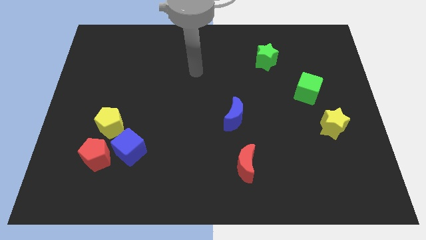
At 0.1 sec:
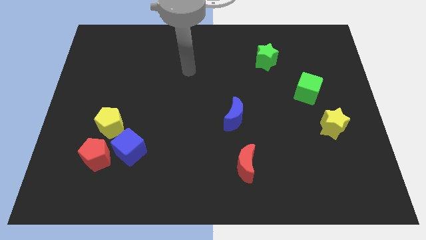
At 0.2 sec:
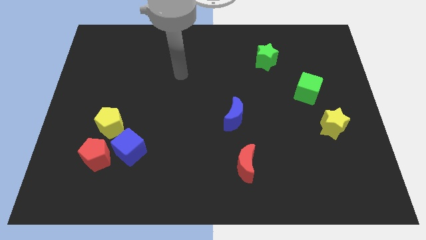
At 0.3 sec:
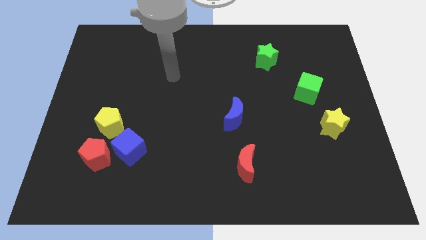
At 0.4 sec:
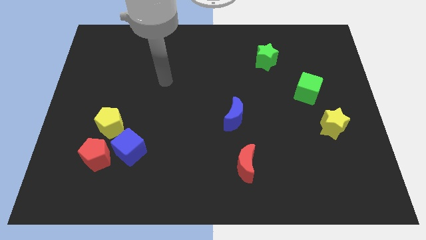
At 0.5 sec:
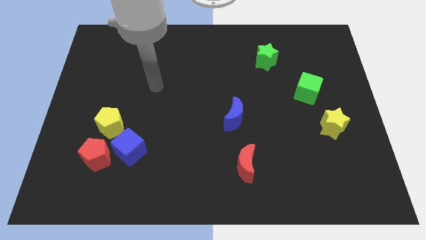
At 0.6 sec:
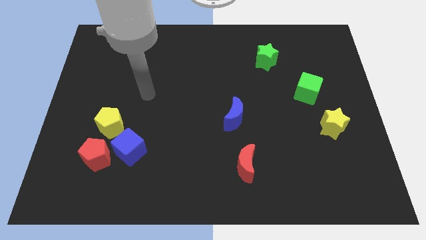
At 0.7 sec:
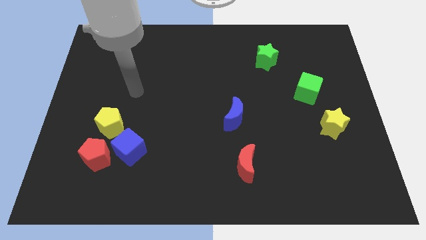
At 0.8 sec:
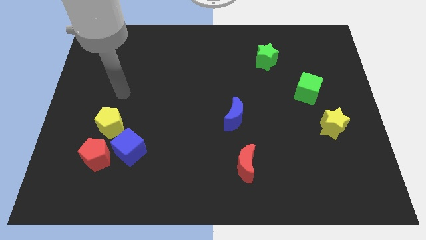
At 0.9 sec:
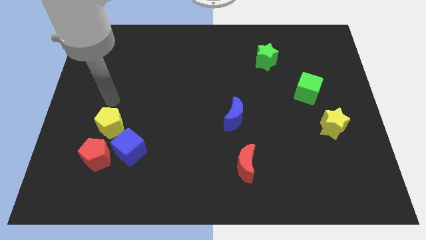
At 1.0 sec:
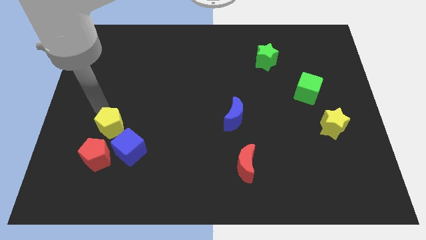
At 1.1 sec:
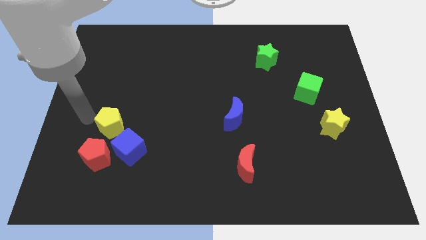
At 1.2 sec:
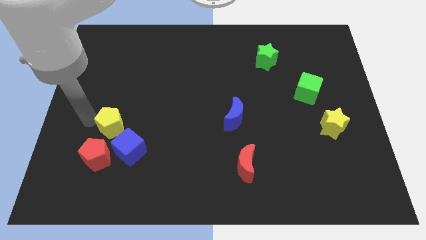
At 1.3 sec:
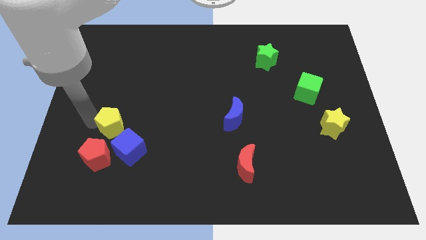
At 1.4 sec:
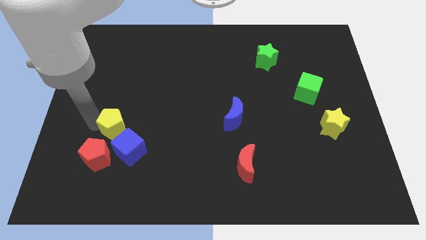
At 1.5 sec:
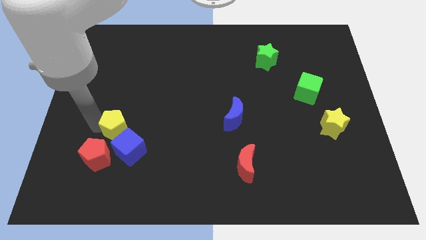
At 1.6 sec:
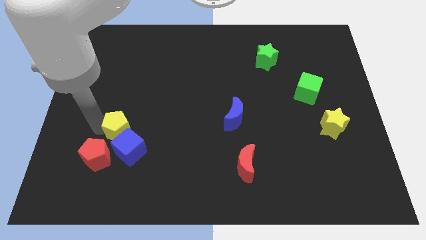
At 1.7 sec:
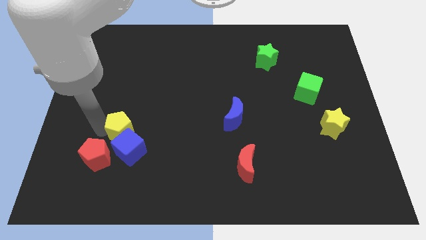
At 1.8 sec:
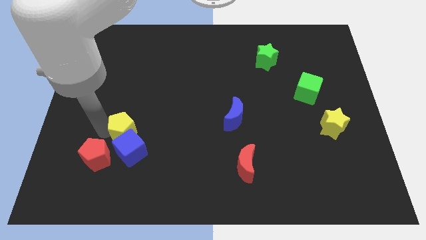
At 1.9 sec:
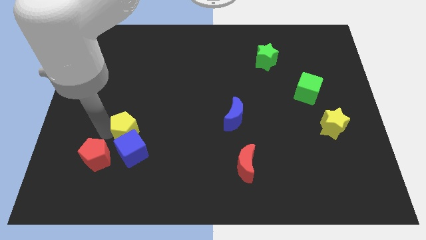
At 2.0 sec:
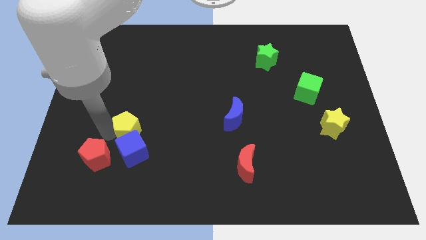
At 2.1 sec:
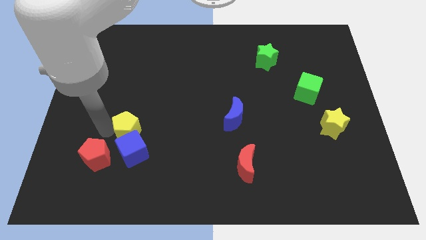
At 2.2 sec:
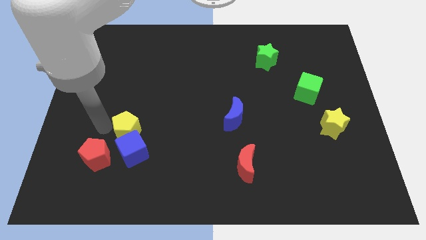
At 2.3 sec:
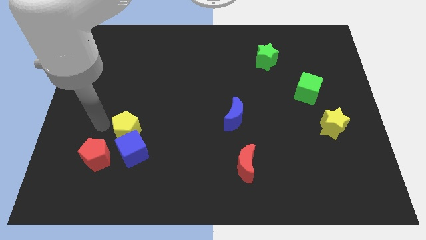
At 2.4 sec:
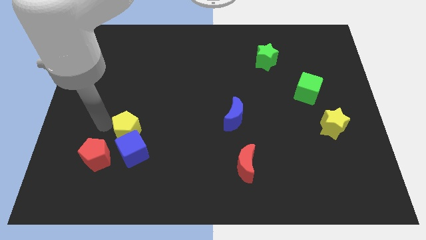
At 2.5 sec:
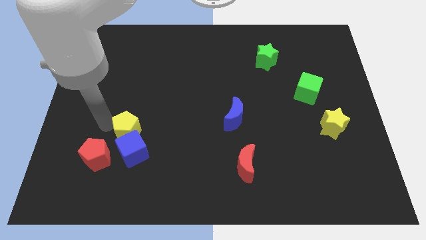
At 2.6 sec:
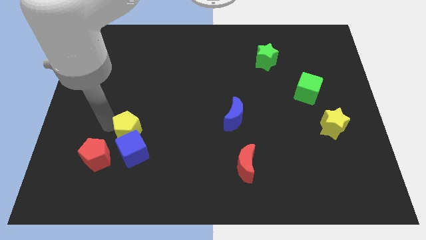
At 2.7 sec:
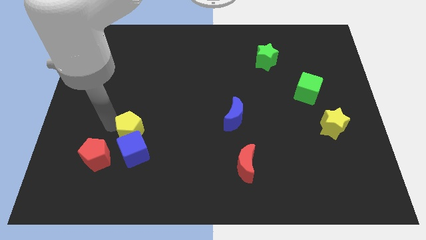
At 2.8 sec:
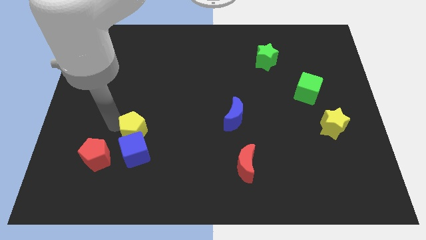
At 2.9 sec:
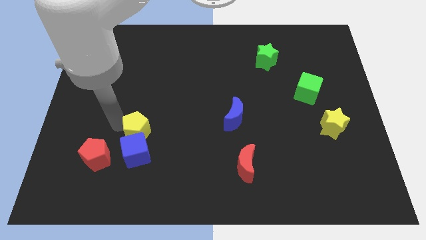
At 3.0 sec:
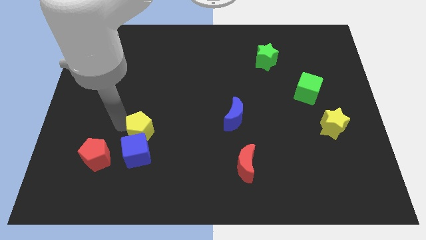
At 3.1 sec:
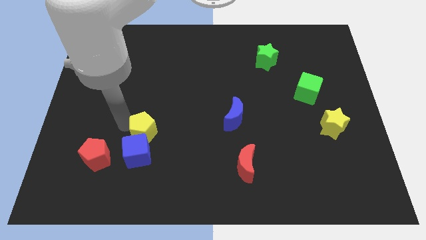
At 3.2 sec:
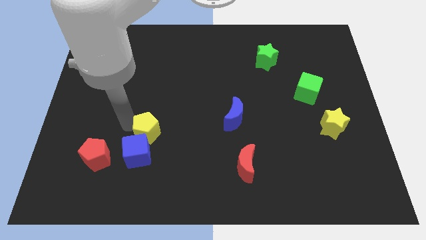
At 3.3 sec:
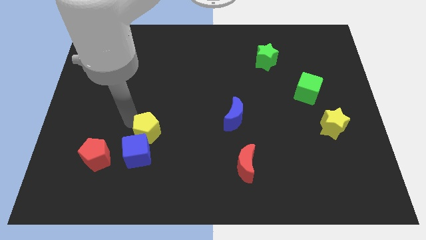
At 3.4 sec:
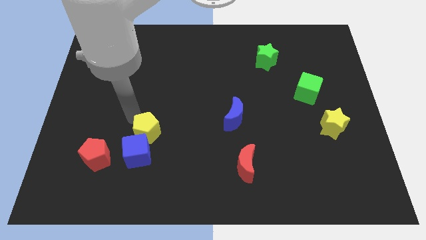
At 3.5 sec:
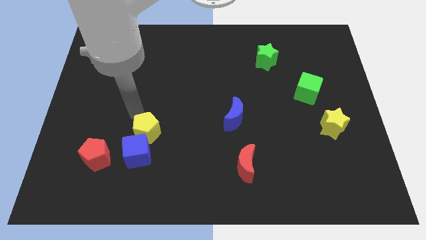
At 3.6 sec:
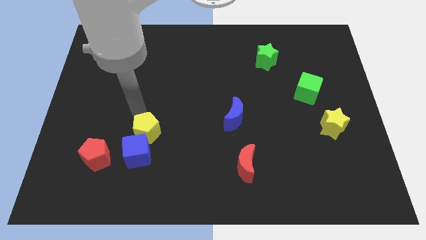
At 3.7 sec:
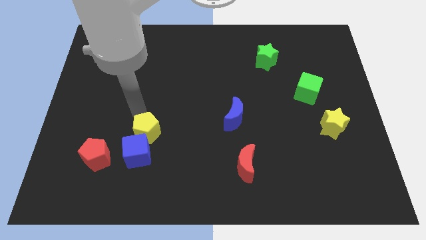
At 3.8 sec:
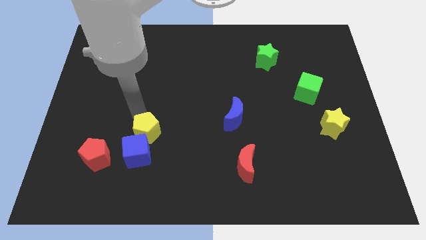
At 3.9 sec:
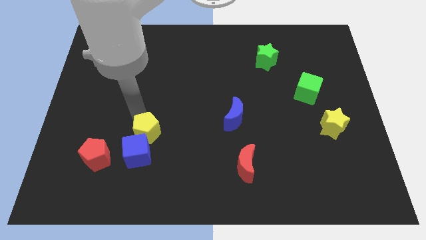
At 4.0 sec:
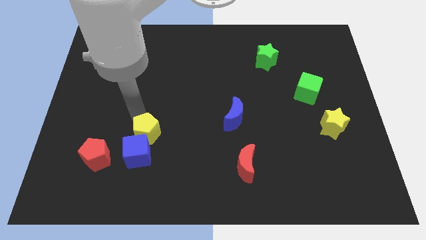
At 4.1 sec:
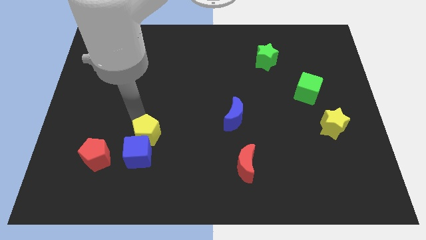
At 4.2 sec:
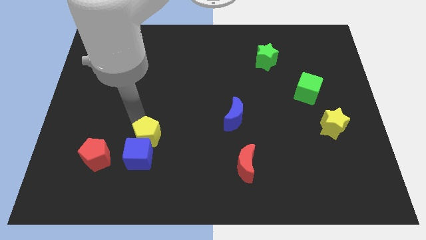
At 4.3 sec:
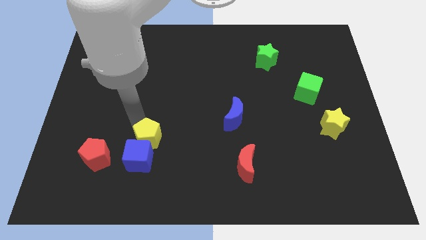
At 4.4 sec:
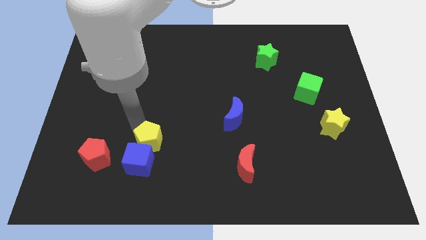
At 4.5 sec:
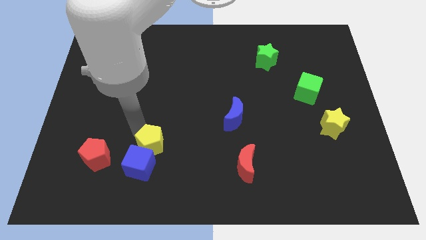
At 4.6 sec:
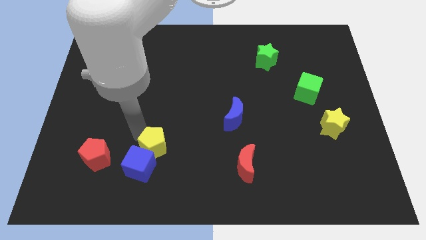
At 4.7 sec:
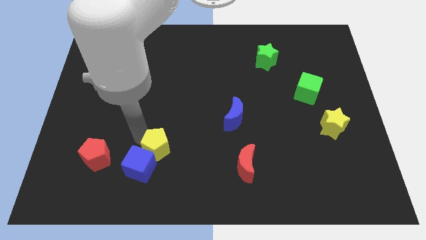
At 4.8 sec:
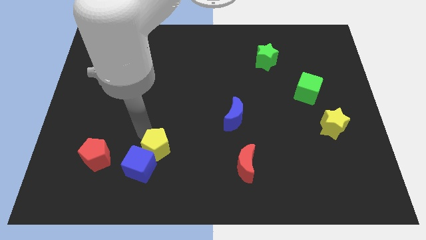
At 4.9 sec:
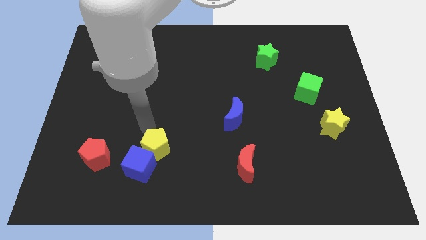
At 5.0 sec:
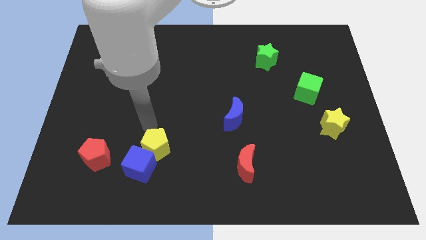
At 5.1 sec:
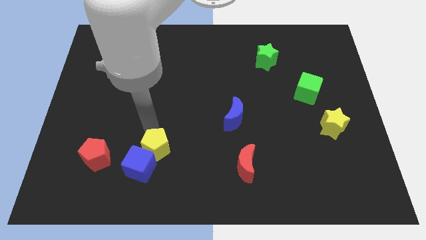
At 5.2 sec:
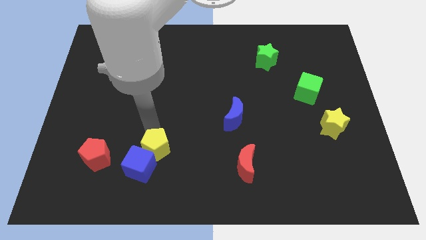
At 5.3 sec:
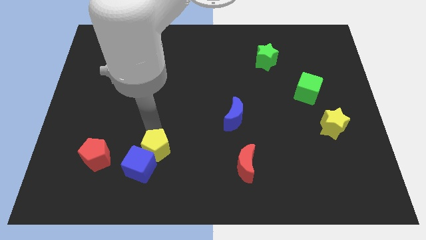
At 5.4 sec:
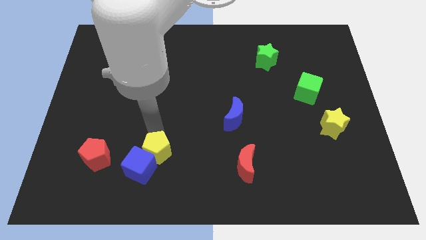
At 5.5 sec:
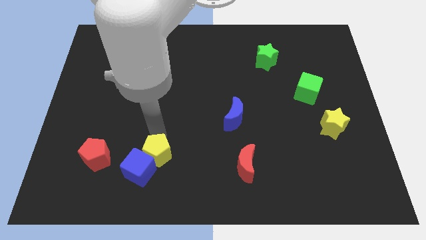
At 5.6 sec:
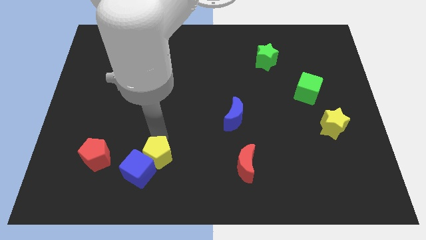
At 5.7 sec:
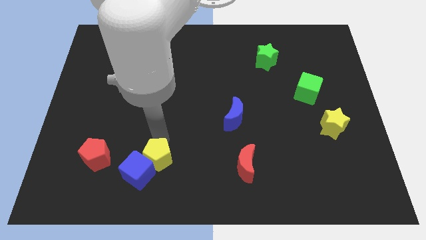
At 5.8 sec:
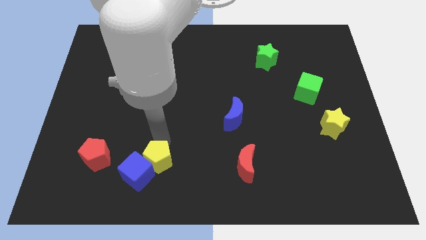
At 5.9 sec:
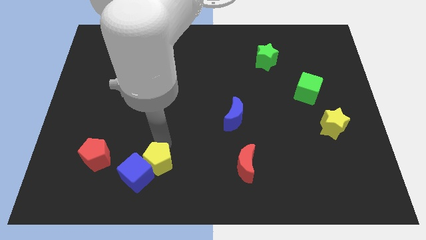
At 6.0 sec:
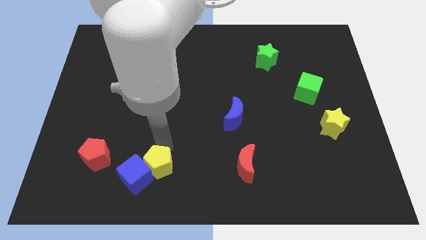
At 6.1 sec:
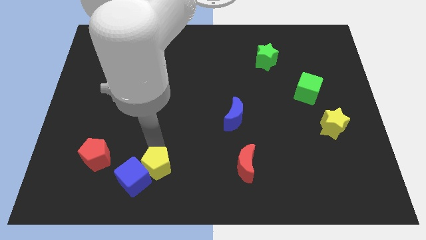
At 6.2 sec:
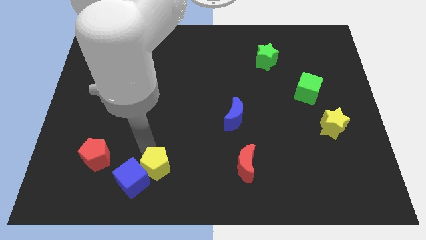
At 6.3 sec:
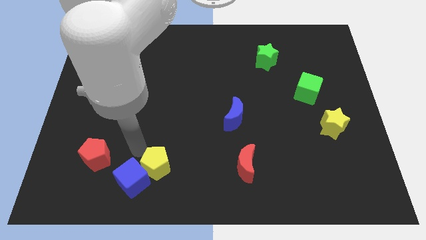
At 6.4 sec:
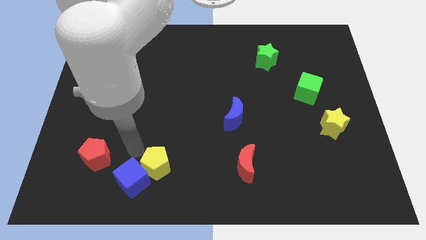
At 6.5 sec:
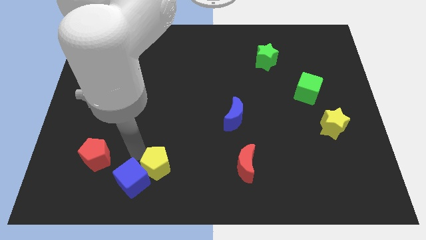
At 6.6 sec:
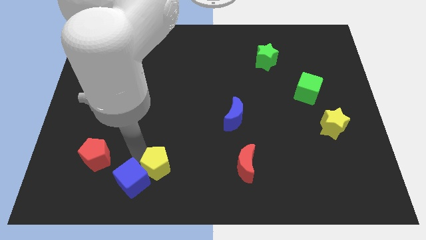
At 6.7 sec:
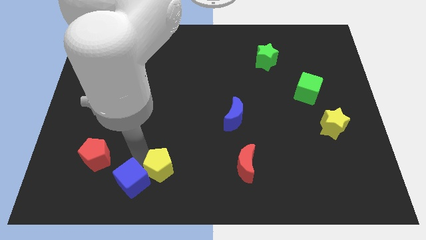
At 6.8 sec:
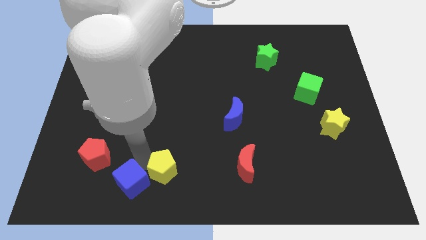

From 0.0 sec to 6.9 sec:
move the yellow pentagon to the bottom side
